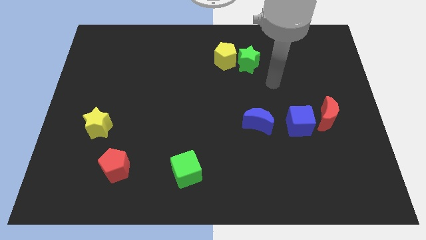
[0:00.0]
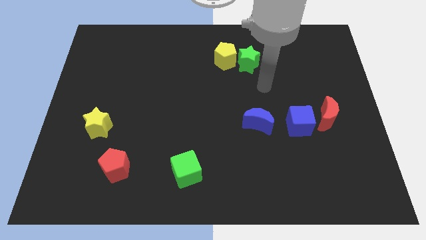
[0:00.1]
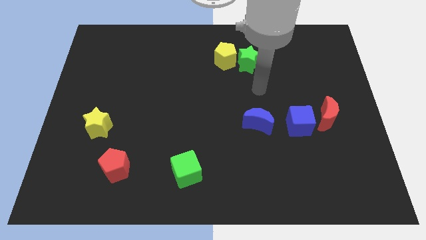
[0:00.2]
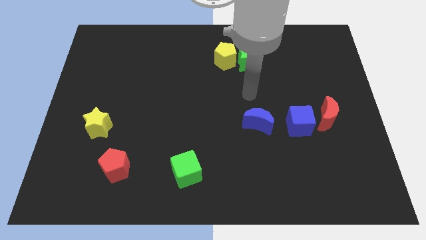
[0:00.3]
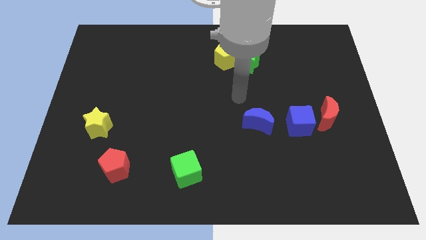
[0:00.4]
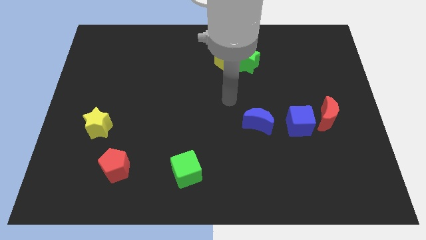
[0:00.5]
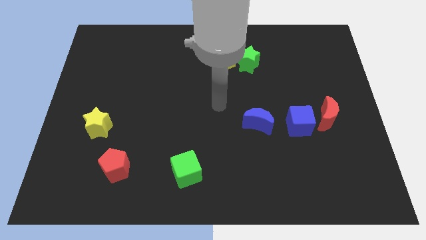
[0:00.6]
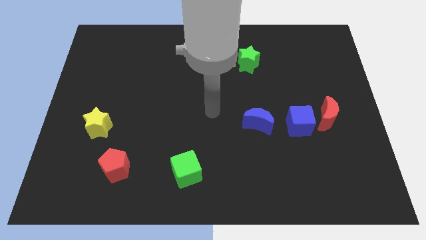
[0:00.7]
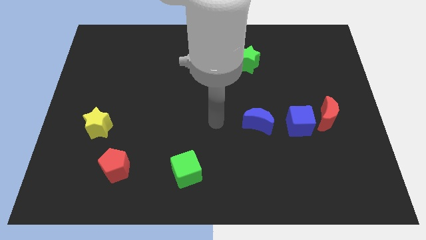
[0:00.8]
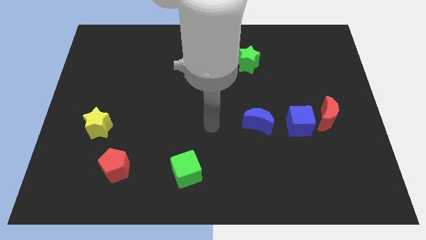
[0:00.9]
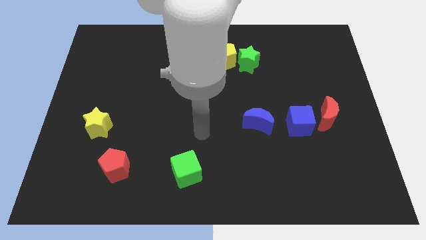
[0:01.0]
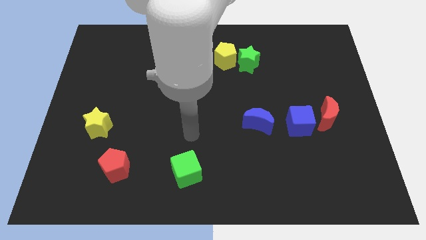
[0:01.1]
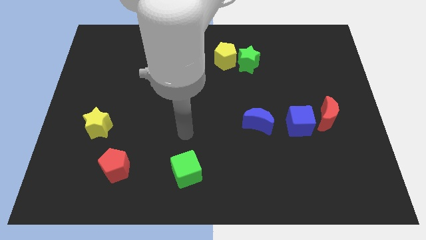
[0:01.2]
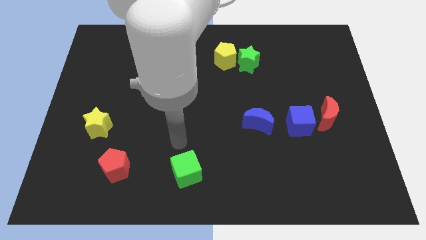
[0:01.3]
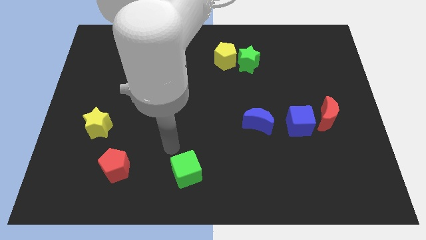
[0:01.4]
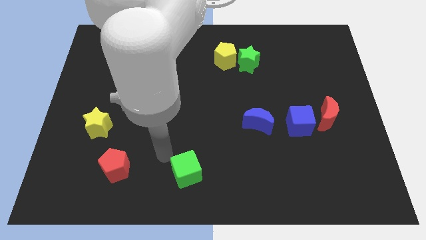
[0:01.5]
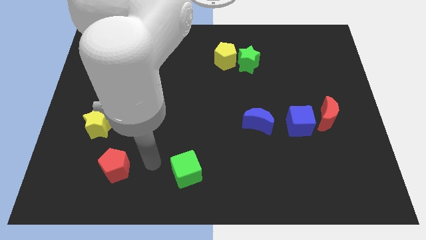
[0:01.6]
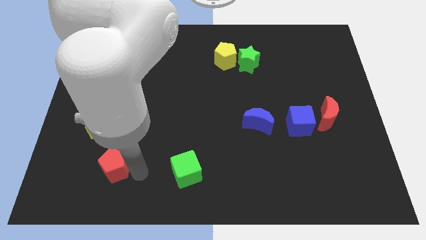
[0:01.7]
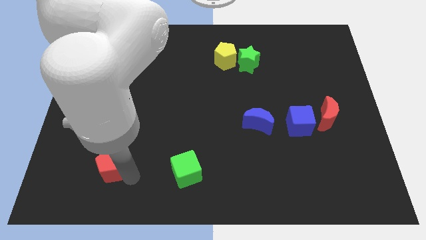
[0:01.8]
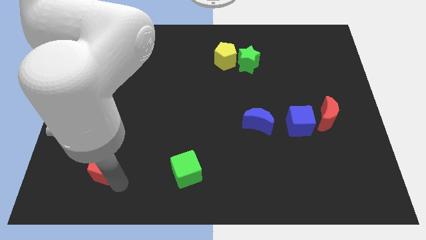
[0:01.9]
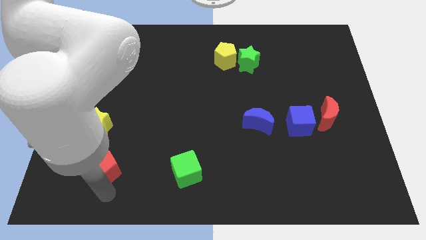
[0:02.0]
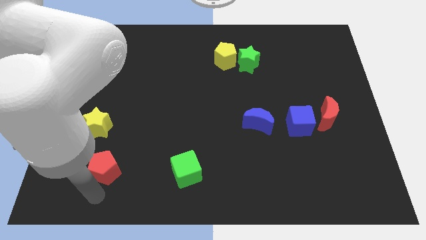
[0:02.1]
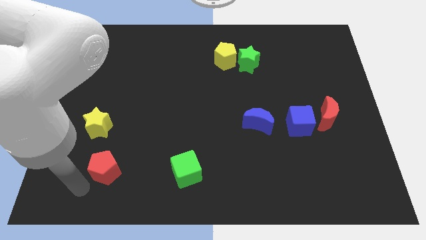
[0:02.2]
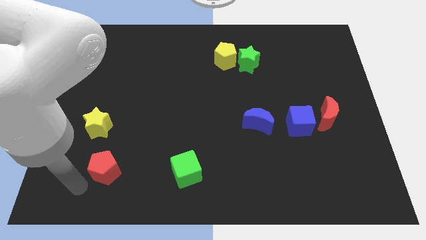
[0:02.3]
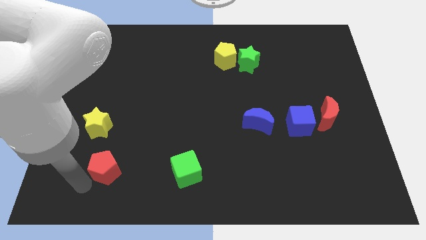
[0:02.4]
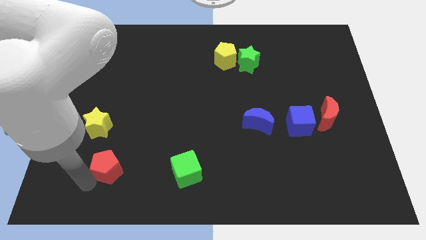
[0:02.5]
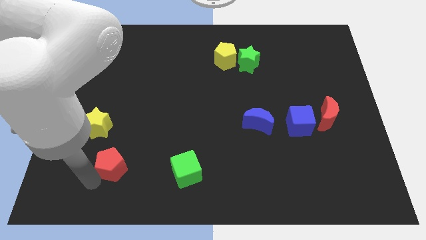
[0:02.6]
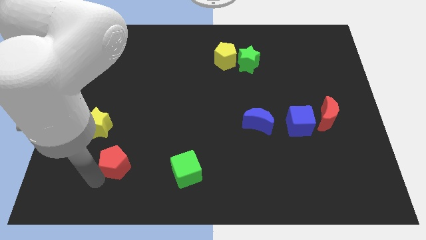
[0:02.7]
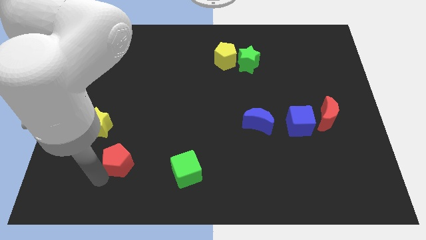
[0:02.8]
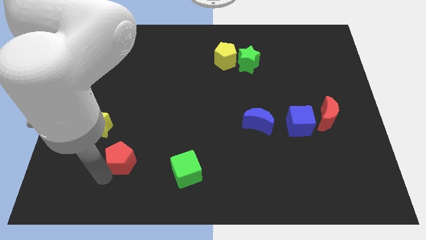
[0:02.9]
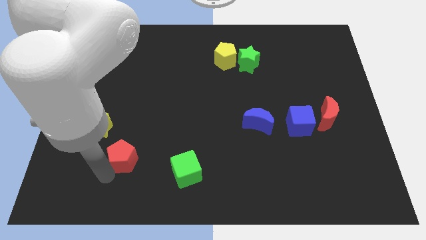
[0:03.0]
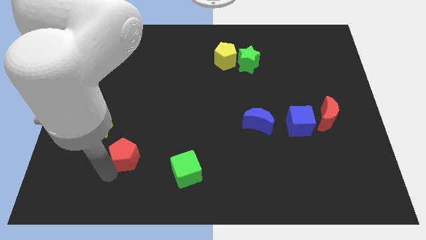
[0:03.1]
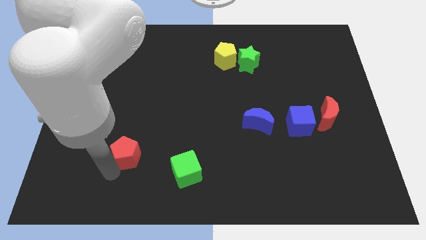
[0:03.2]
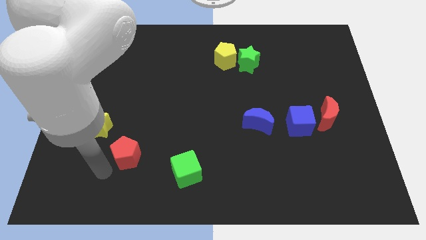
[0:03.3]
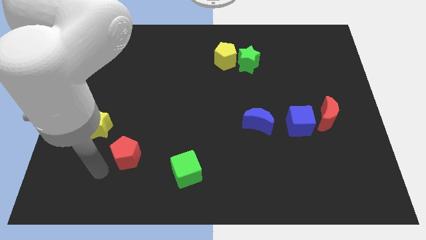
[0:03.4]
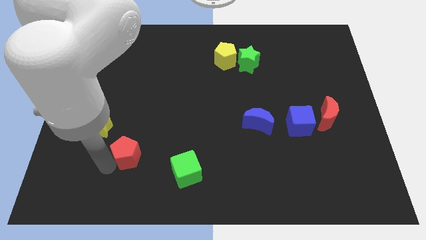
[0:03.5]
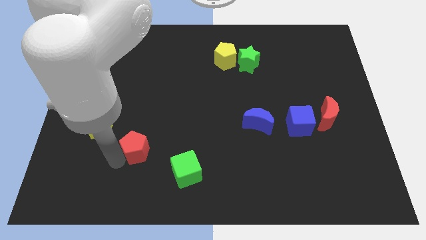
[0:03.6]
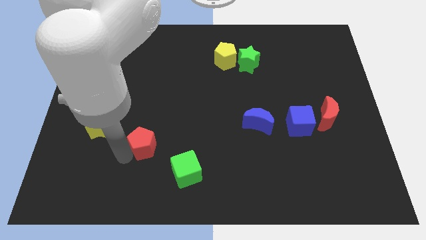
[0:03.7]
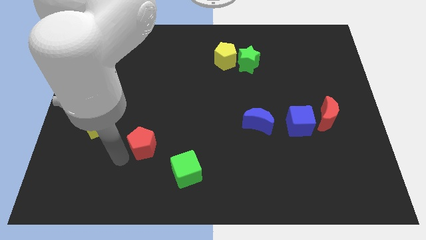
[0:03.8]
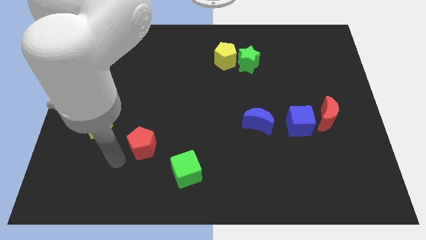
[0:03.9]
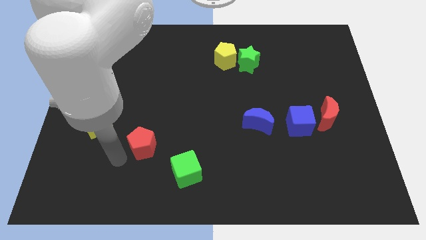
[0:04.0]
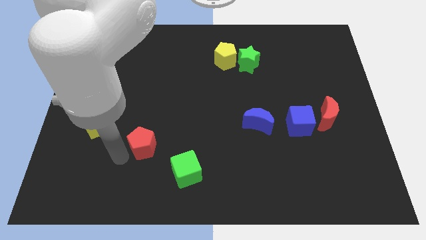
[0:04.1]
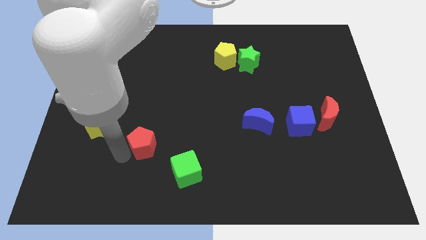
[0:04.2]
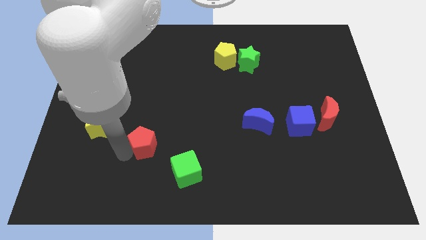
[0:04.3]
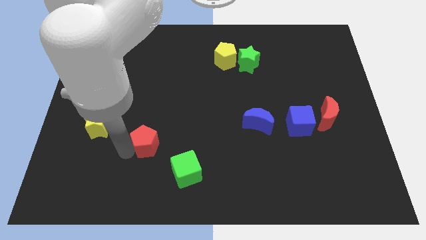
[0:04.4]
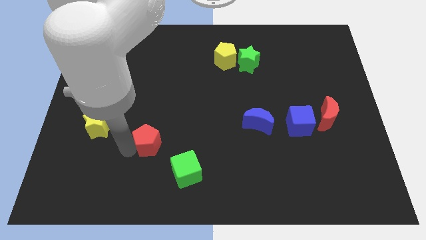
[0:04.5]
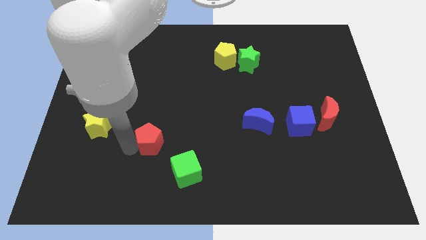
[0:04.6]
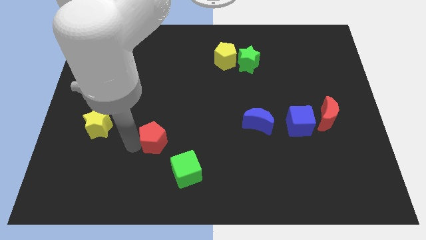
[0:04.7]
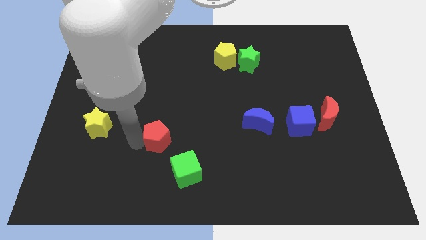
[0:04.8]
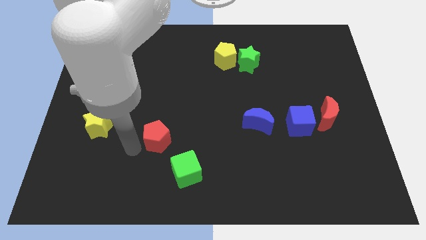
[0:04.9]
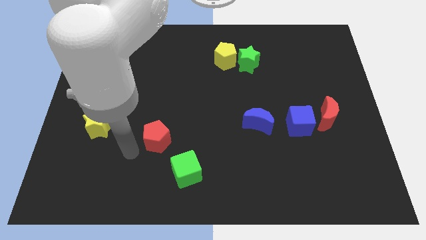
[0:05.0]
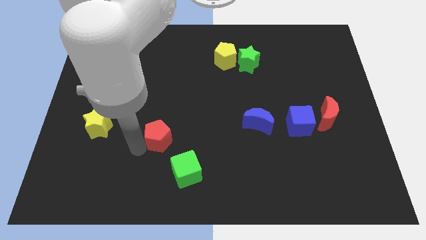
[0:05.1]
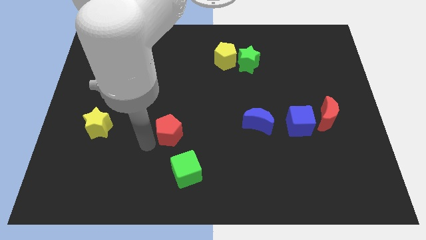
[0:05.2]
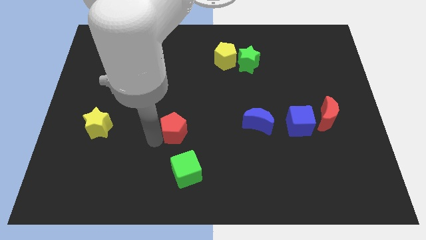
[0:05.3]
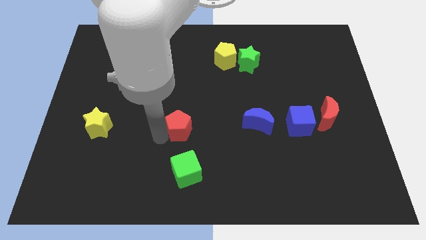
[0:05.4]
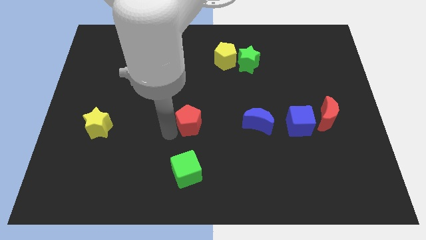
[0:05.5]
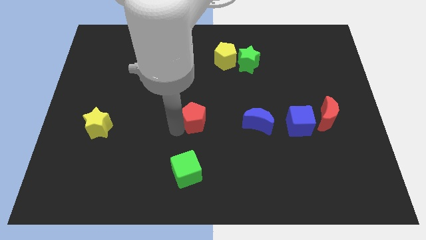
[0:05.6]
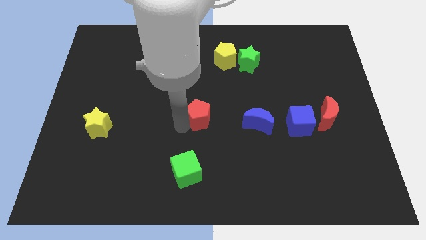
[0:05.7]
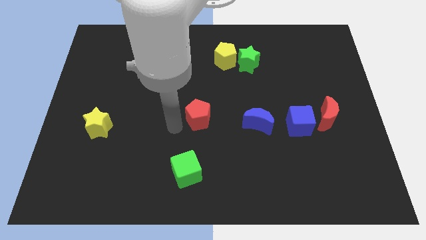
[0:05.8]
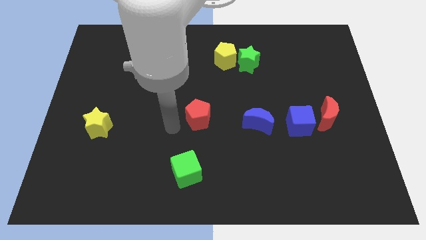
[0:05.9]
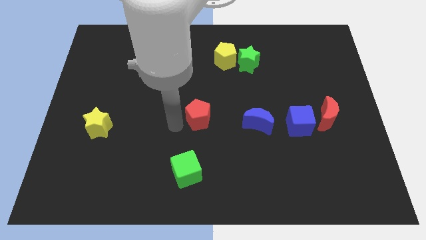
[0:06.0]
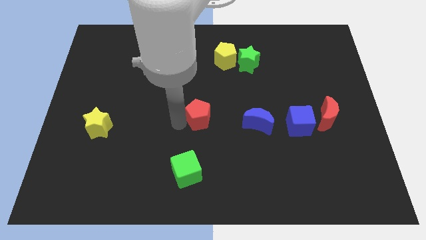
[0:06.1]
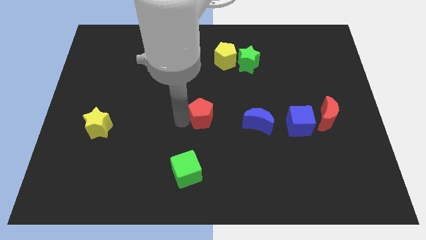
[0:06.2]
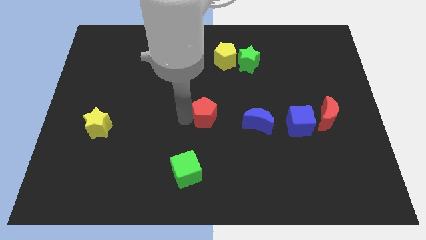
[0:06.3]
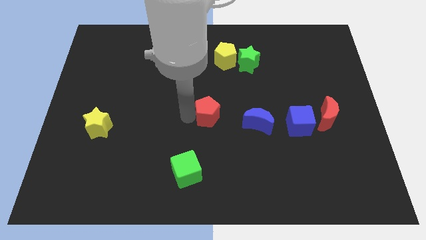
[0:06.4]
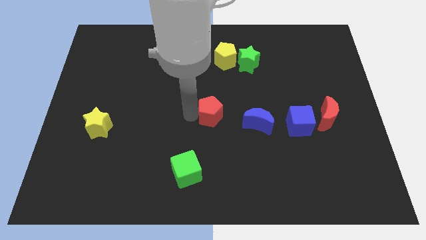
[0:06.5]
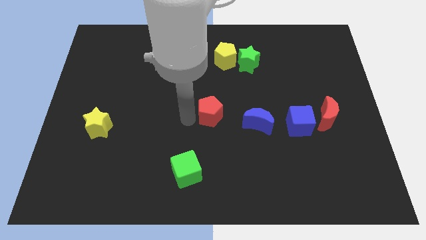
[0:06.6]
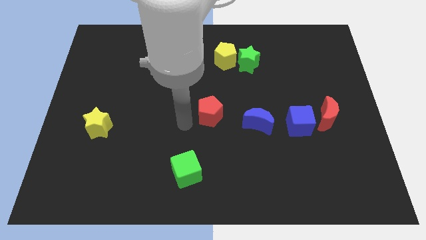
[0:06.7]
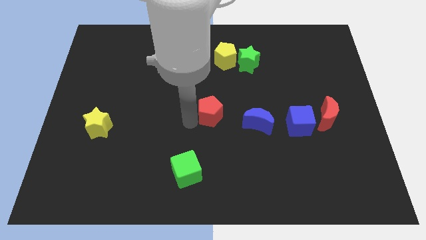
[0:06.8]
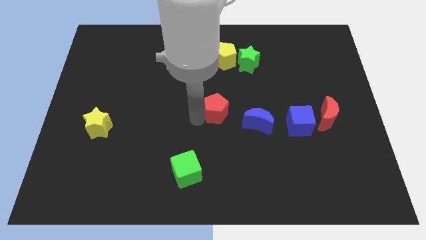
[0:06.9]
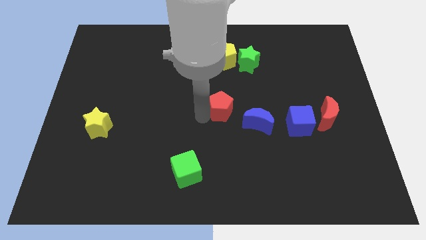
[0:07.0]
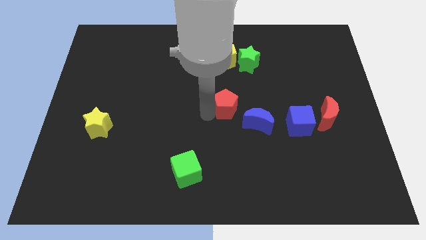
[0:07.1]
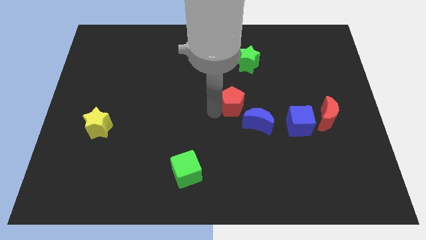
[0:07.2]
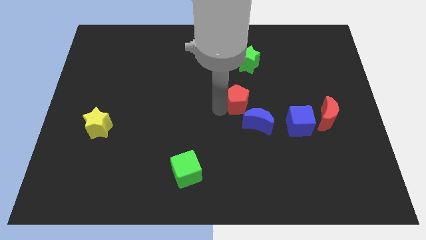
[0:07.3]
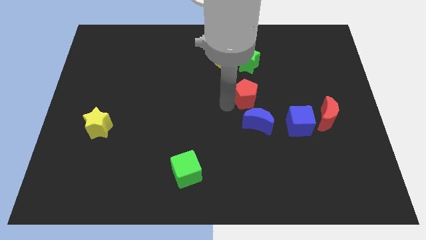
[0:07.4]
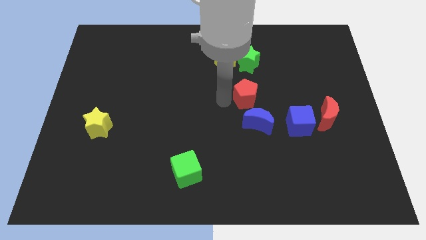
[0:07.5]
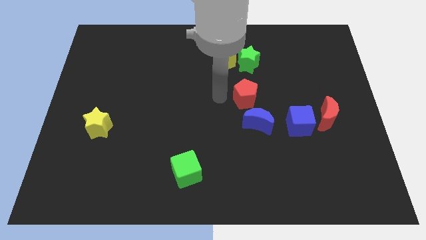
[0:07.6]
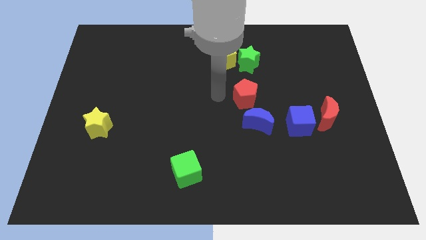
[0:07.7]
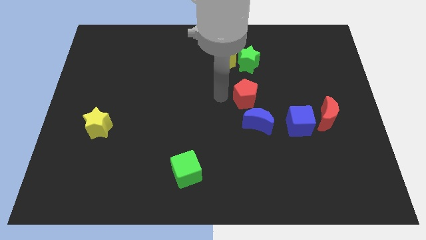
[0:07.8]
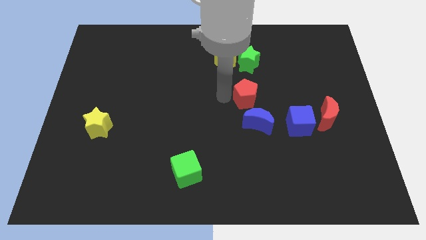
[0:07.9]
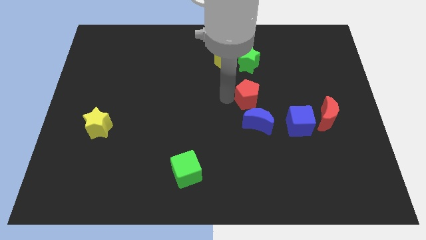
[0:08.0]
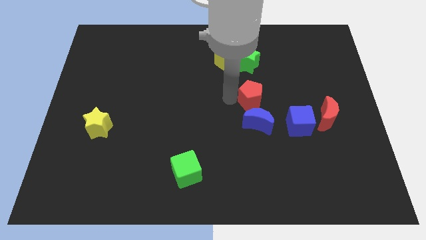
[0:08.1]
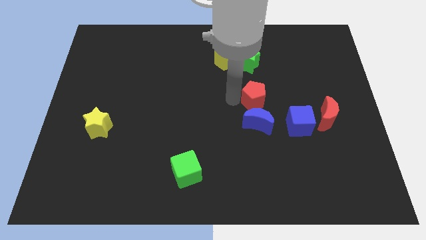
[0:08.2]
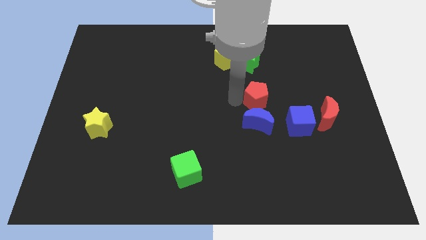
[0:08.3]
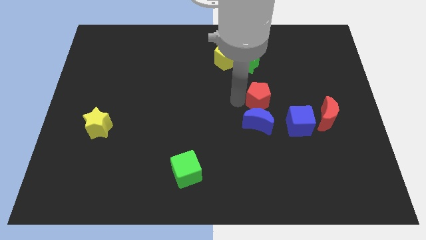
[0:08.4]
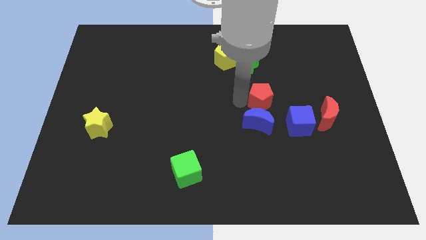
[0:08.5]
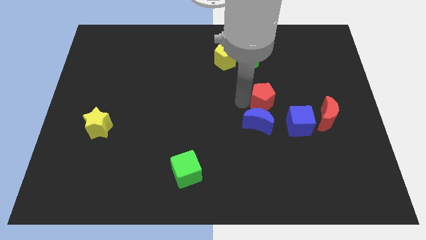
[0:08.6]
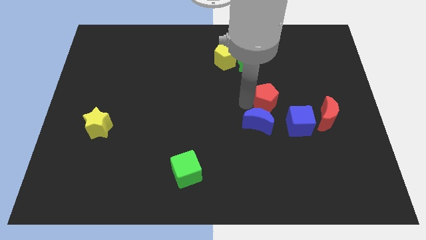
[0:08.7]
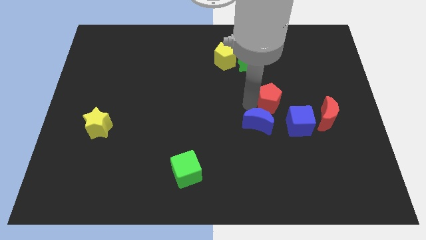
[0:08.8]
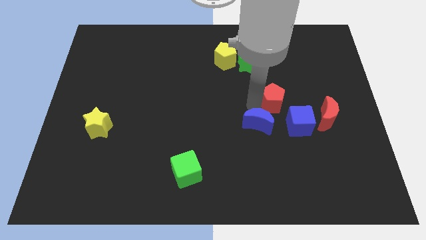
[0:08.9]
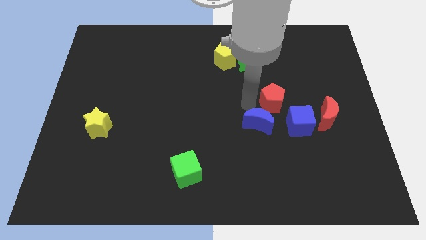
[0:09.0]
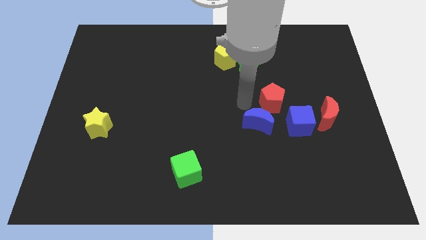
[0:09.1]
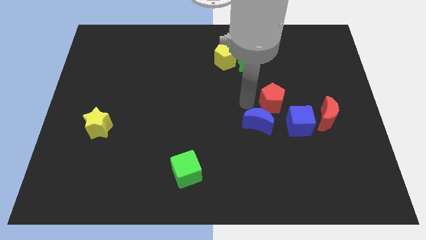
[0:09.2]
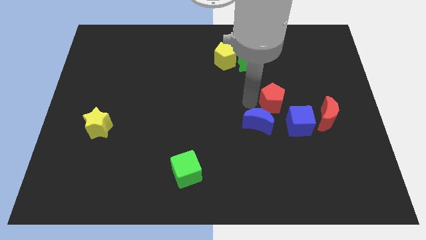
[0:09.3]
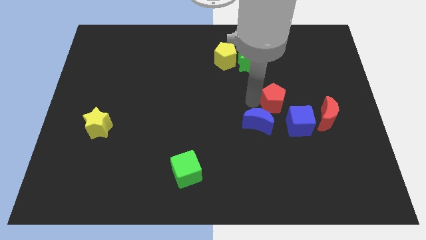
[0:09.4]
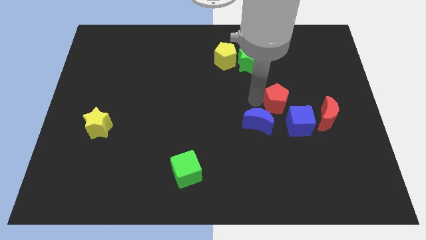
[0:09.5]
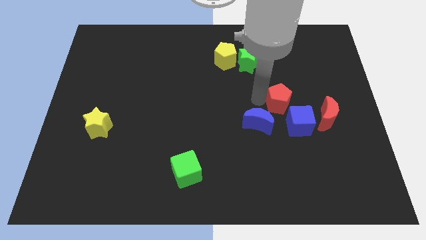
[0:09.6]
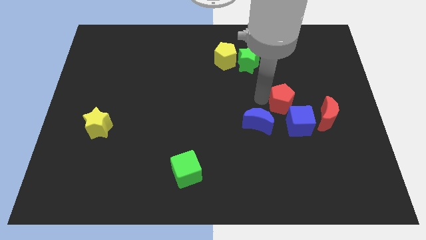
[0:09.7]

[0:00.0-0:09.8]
put the red pentagon to the top left of the red moon
